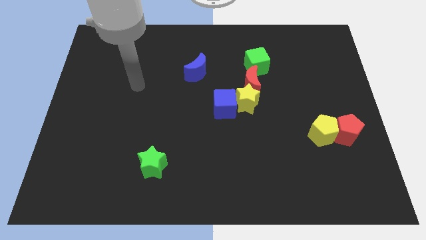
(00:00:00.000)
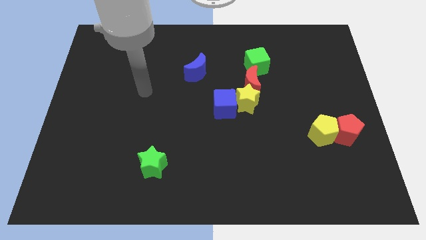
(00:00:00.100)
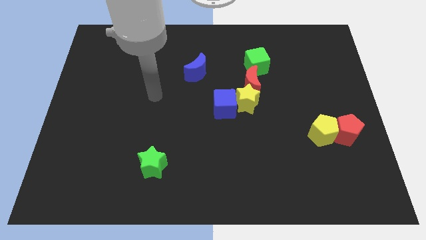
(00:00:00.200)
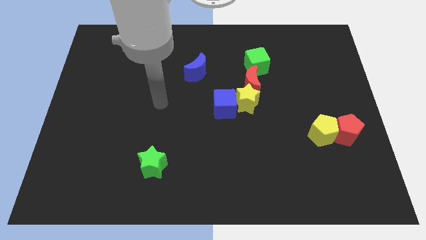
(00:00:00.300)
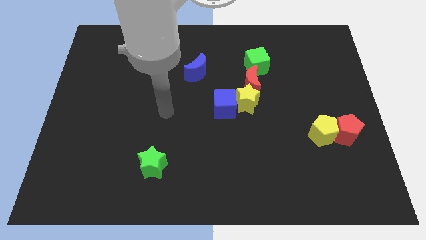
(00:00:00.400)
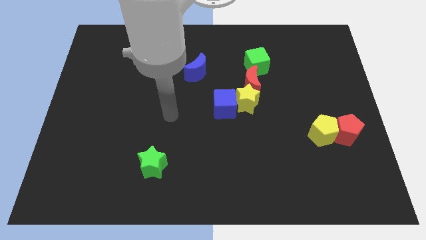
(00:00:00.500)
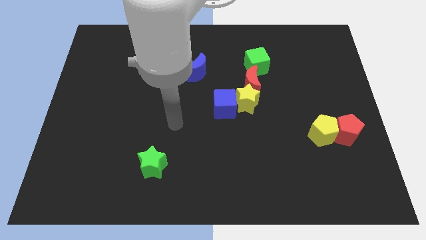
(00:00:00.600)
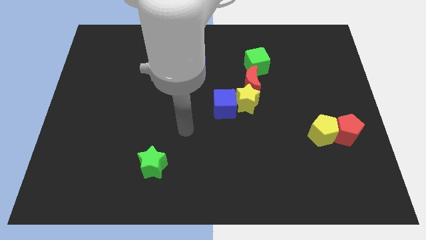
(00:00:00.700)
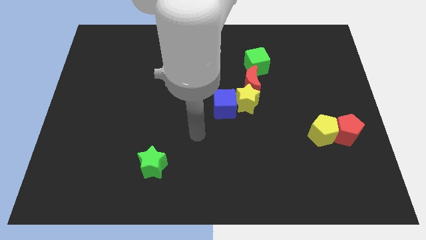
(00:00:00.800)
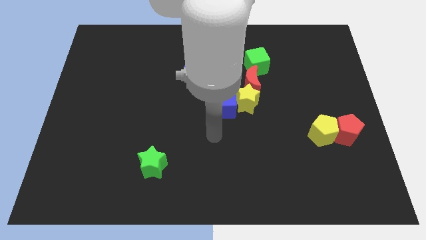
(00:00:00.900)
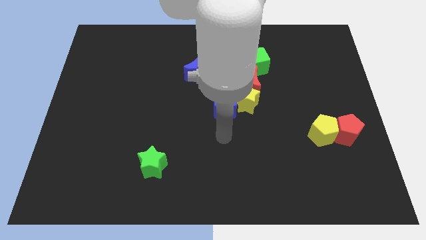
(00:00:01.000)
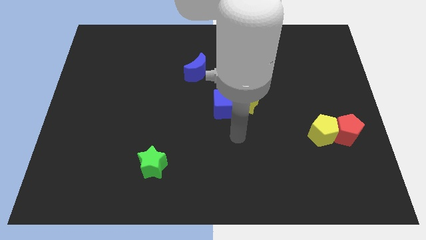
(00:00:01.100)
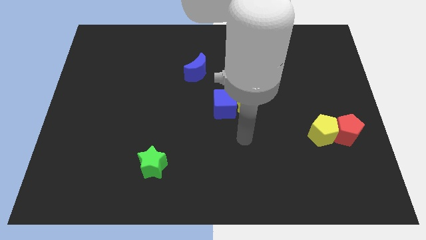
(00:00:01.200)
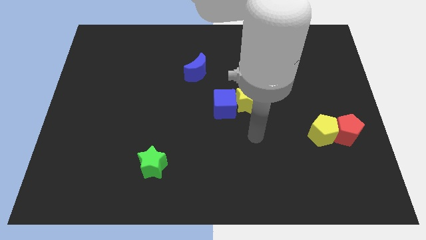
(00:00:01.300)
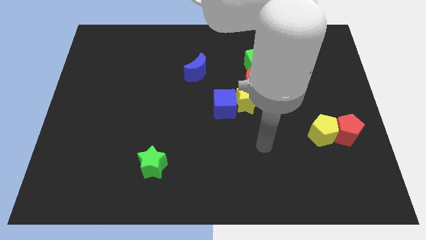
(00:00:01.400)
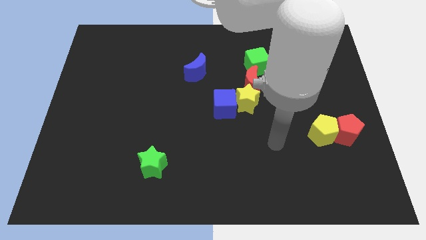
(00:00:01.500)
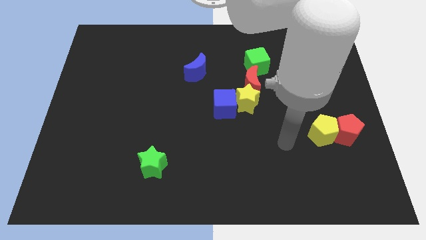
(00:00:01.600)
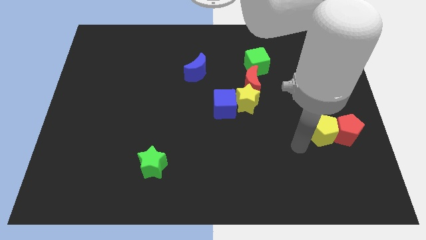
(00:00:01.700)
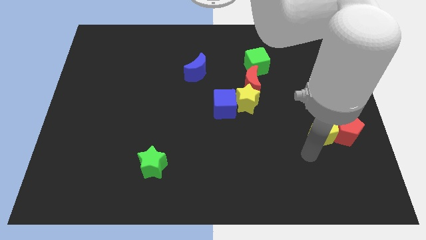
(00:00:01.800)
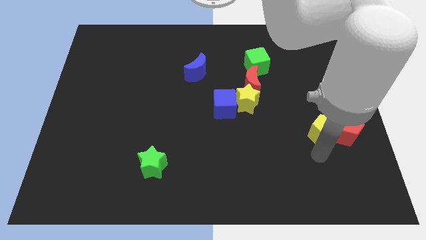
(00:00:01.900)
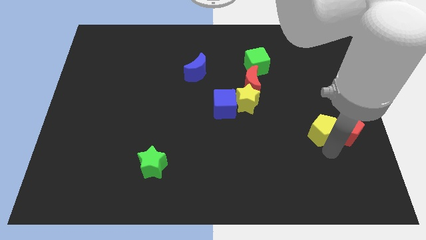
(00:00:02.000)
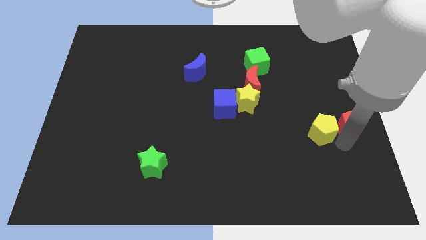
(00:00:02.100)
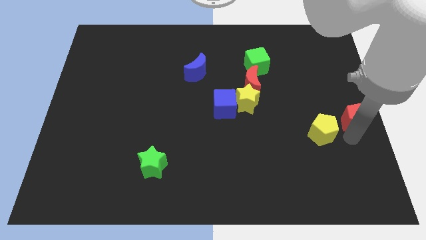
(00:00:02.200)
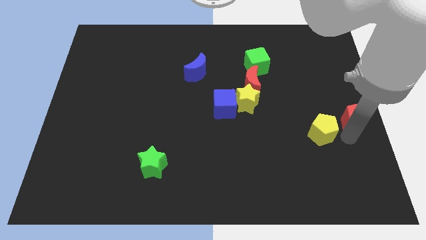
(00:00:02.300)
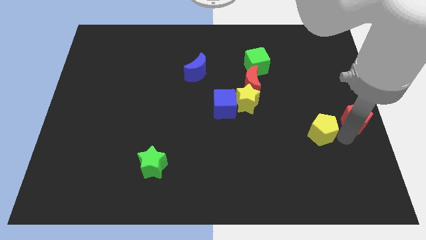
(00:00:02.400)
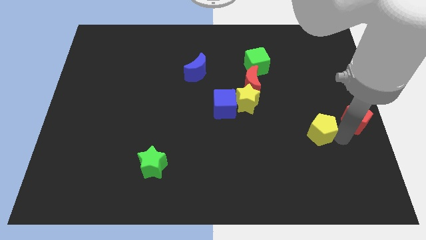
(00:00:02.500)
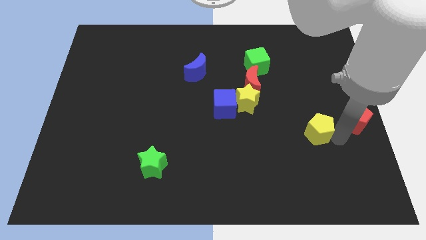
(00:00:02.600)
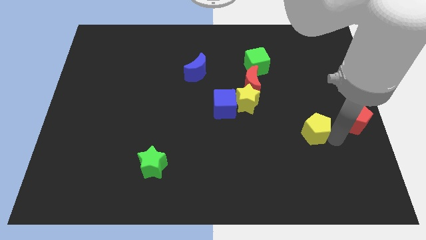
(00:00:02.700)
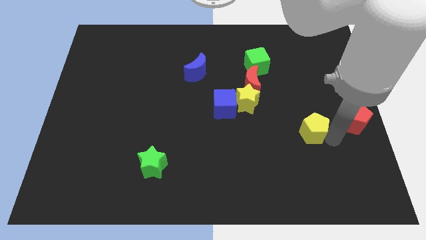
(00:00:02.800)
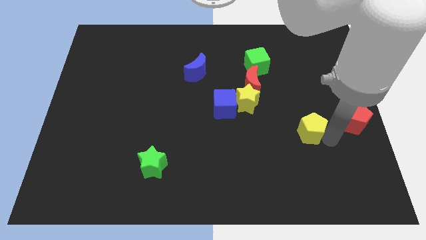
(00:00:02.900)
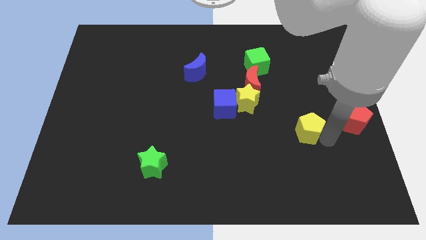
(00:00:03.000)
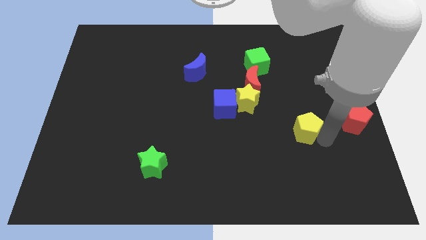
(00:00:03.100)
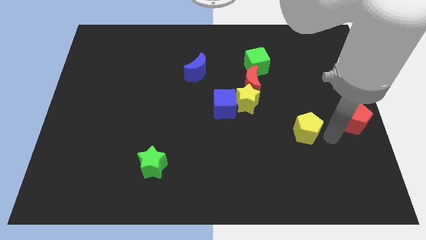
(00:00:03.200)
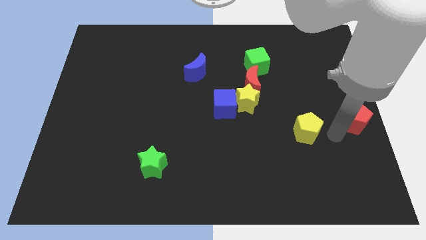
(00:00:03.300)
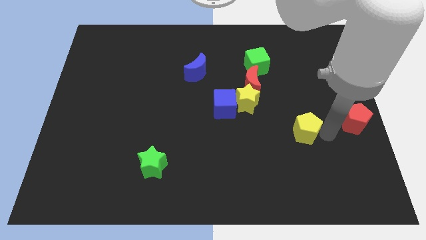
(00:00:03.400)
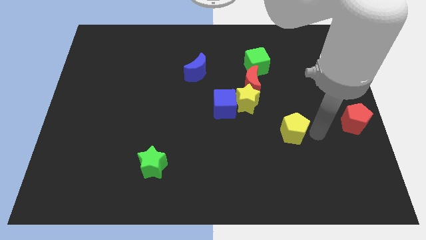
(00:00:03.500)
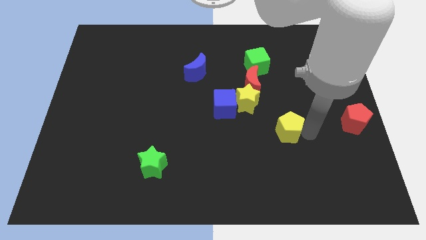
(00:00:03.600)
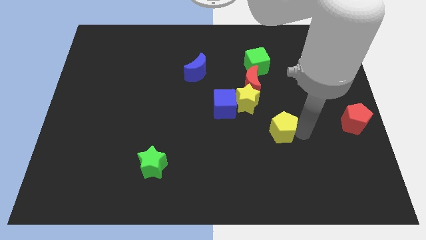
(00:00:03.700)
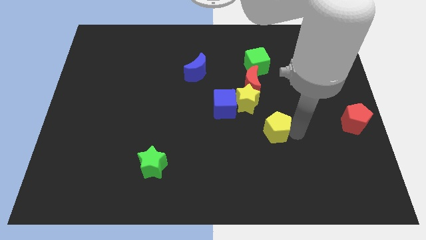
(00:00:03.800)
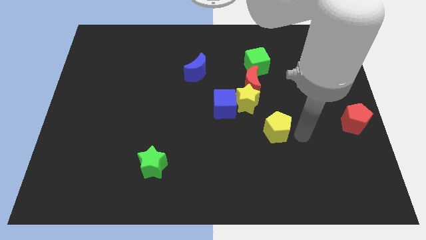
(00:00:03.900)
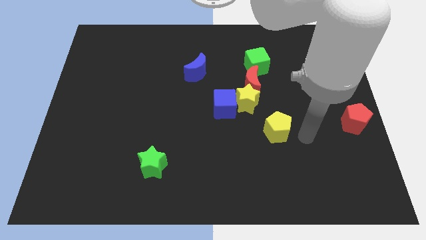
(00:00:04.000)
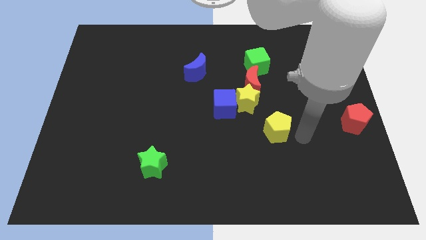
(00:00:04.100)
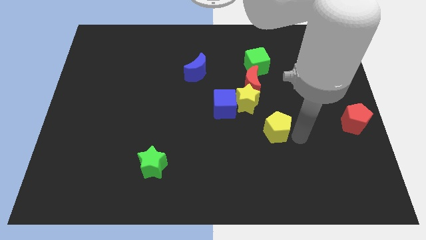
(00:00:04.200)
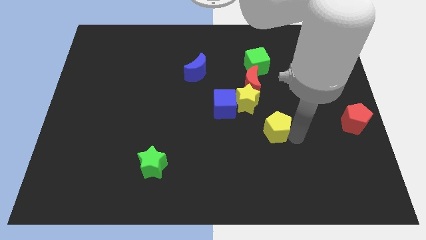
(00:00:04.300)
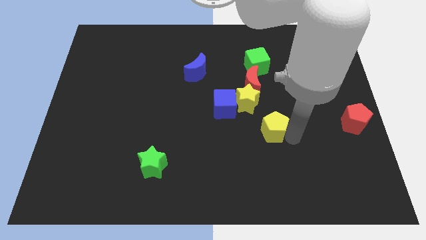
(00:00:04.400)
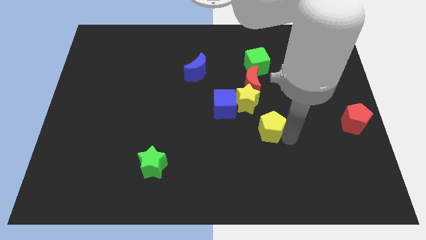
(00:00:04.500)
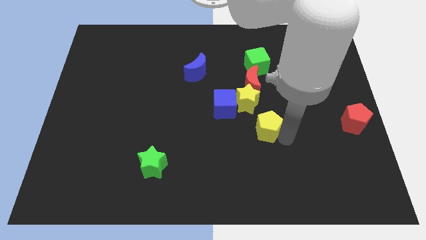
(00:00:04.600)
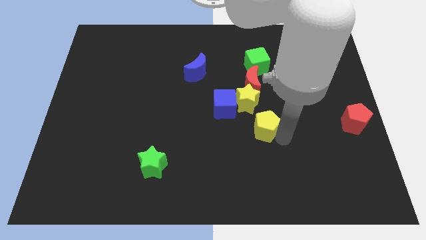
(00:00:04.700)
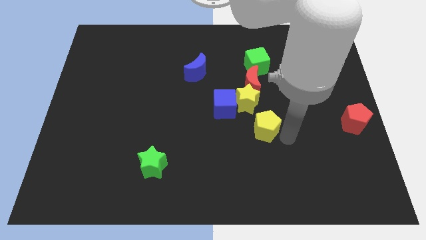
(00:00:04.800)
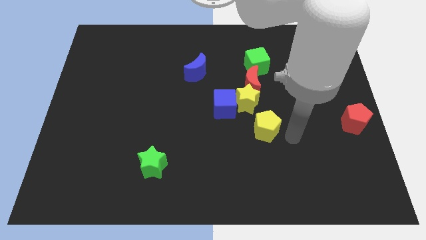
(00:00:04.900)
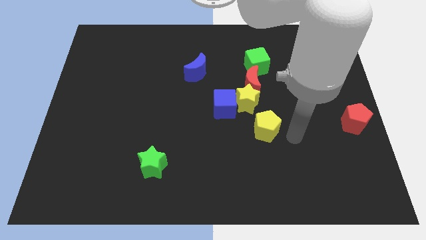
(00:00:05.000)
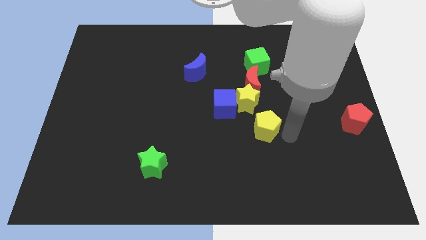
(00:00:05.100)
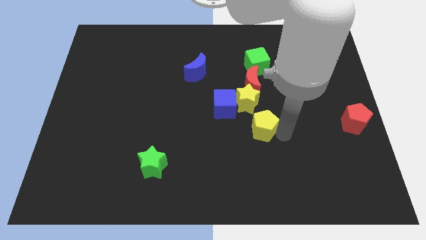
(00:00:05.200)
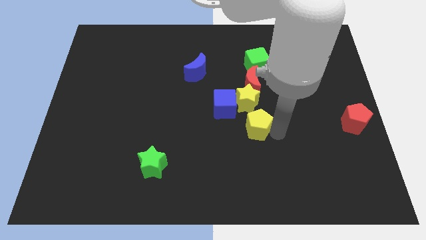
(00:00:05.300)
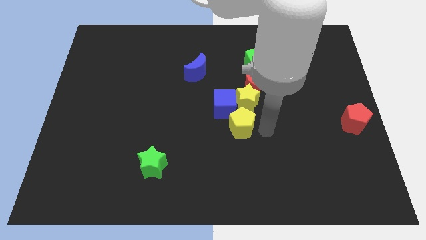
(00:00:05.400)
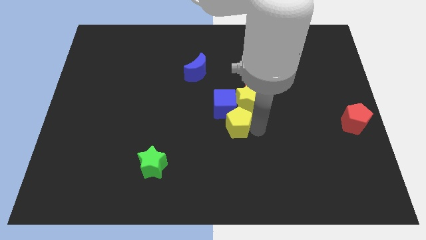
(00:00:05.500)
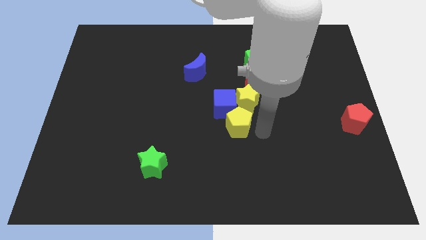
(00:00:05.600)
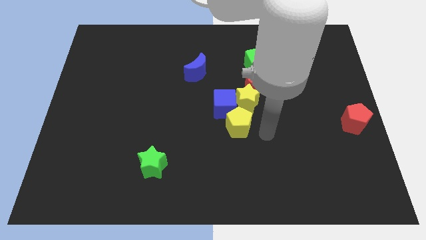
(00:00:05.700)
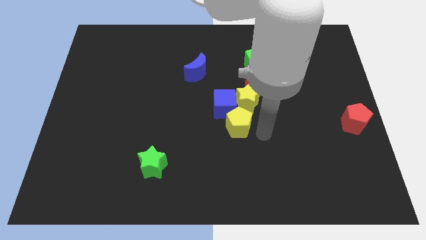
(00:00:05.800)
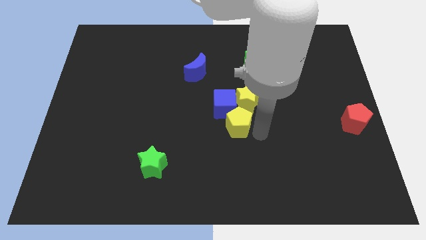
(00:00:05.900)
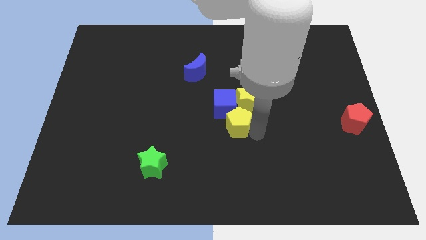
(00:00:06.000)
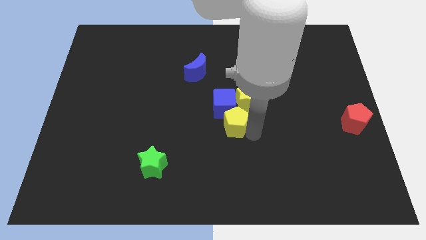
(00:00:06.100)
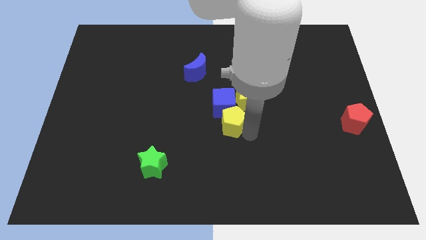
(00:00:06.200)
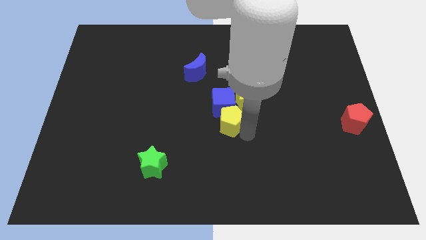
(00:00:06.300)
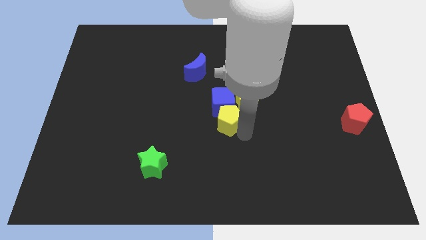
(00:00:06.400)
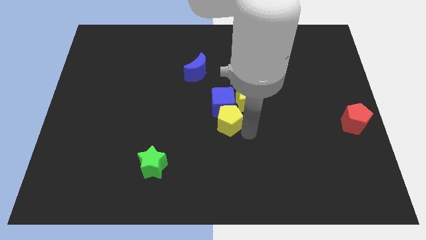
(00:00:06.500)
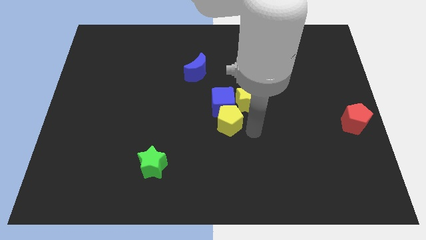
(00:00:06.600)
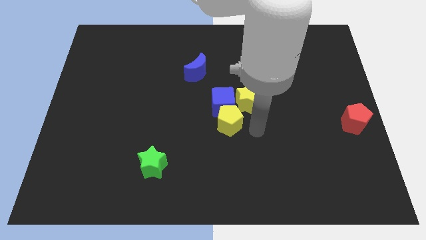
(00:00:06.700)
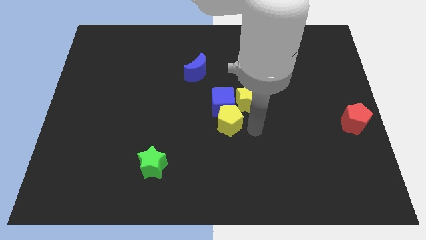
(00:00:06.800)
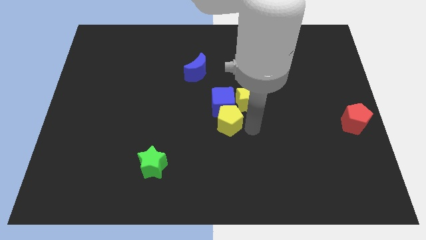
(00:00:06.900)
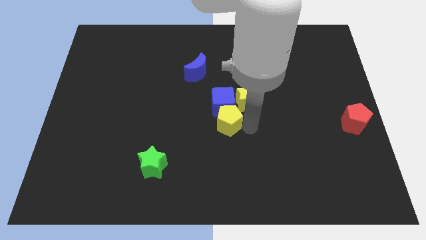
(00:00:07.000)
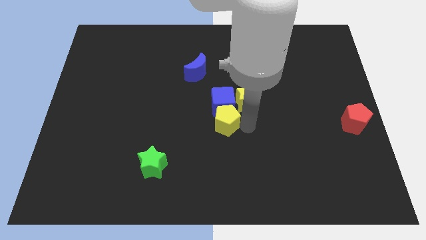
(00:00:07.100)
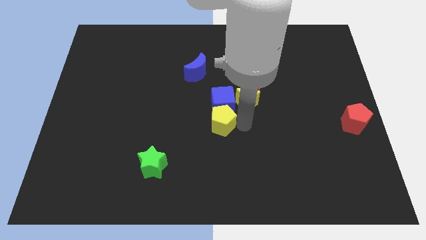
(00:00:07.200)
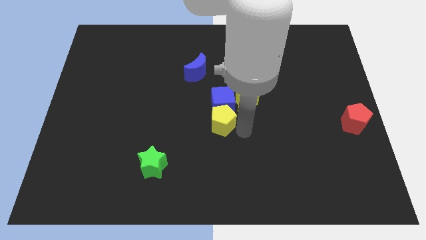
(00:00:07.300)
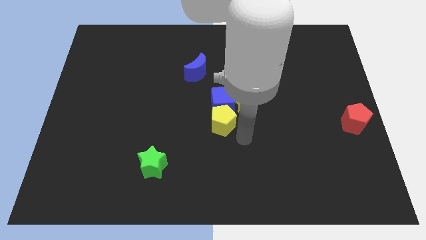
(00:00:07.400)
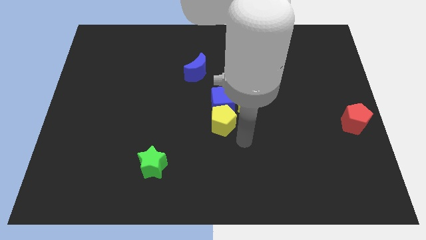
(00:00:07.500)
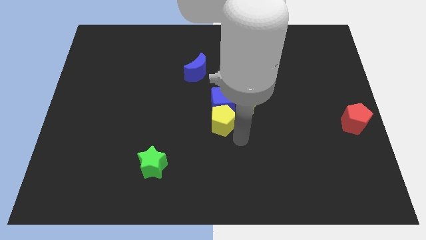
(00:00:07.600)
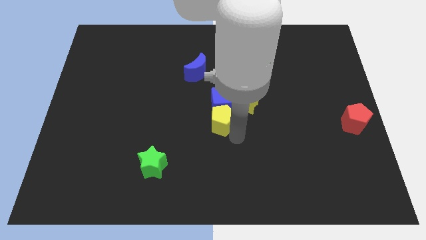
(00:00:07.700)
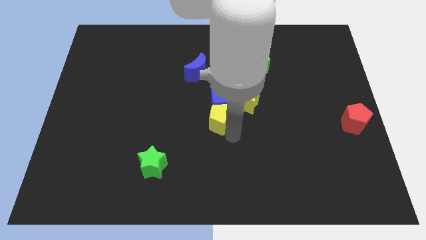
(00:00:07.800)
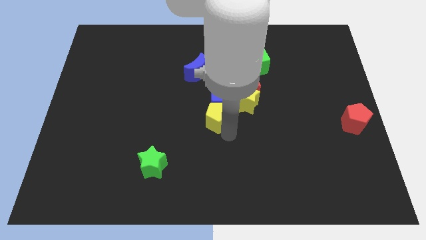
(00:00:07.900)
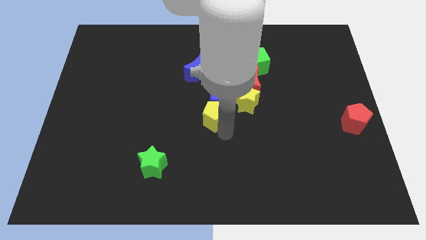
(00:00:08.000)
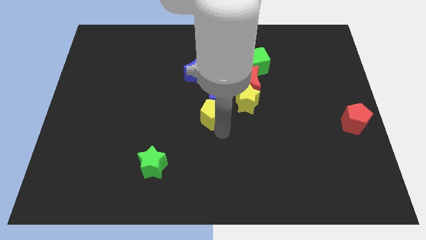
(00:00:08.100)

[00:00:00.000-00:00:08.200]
move the yellow pentagon below the blue moon
